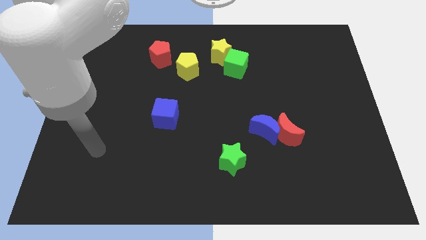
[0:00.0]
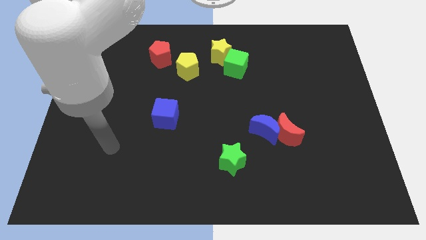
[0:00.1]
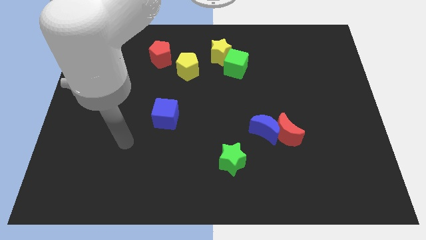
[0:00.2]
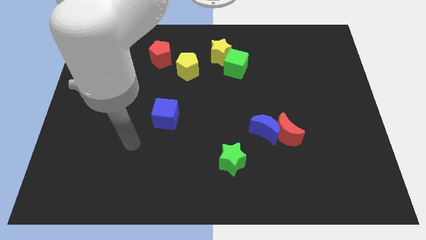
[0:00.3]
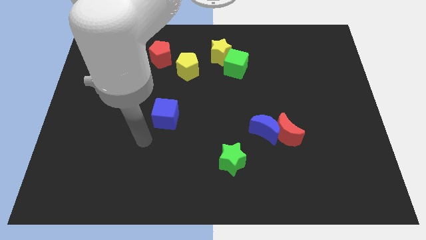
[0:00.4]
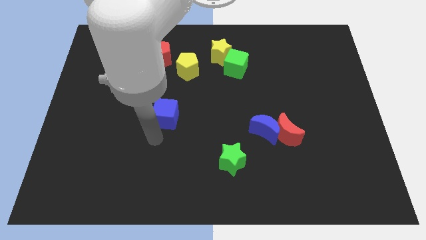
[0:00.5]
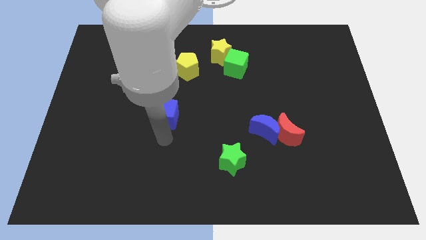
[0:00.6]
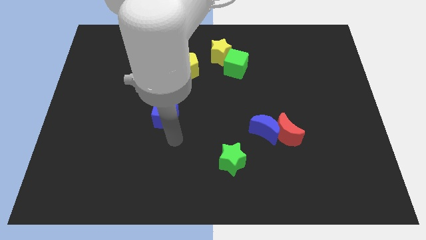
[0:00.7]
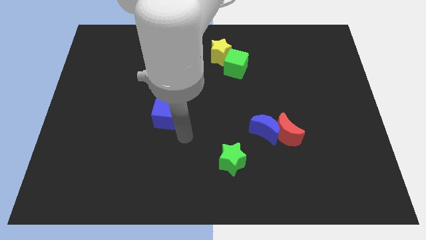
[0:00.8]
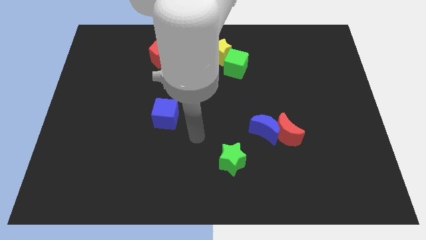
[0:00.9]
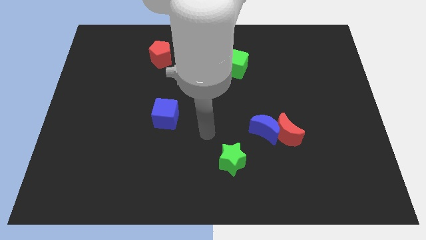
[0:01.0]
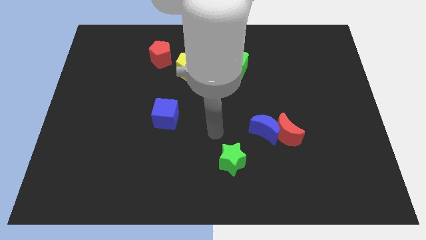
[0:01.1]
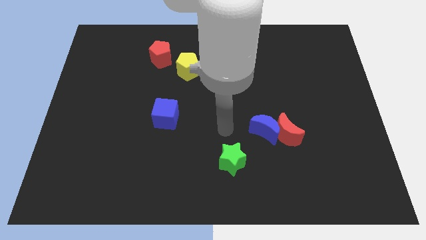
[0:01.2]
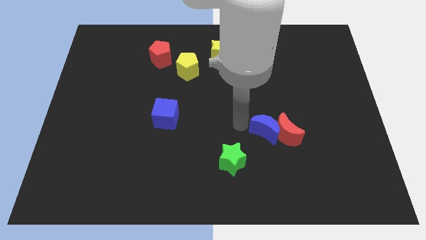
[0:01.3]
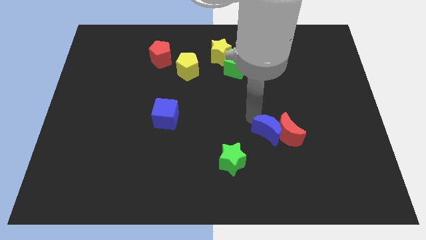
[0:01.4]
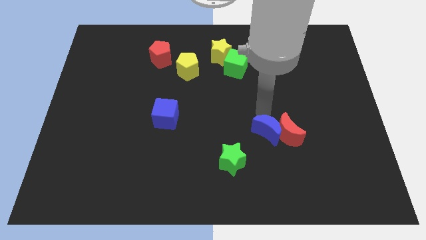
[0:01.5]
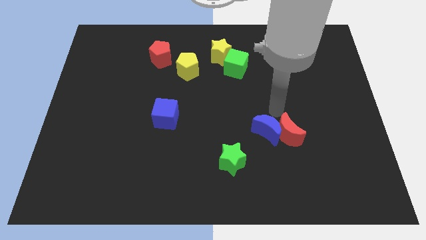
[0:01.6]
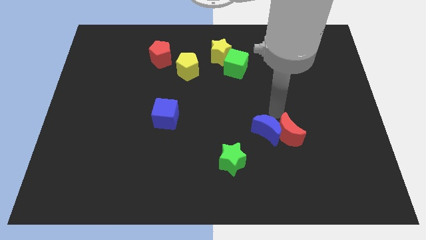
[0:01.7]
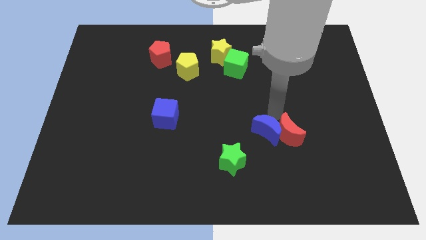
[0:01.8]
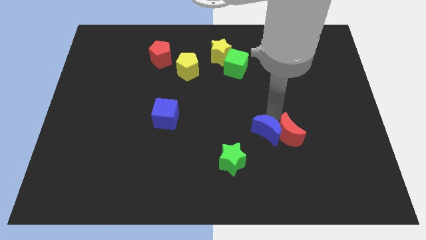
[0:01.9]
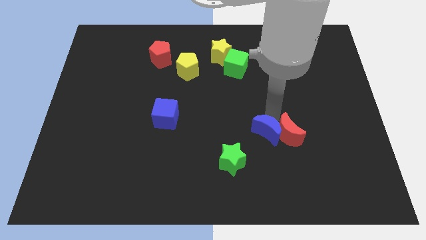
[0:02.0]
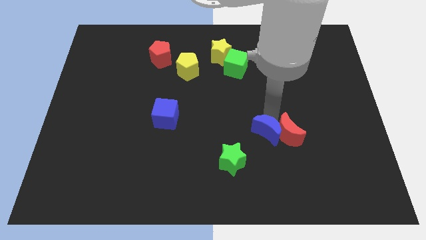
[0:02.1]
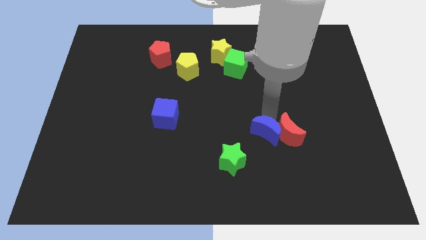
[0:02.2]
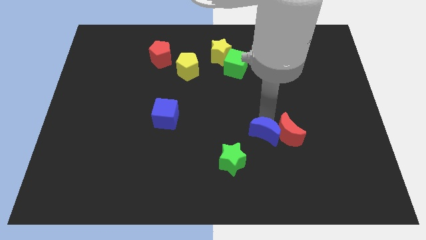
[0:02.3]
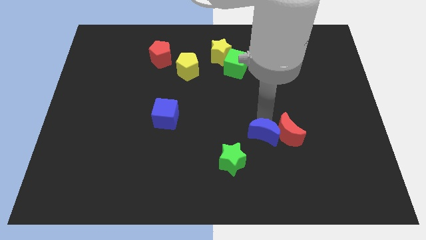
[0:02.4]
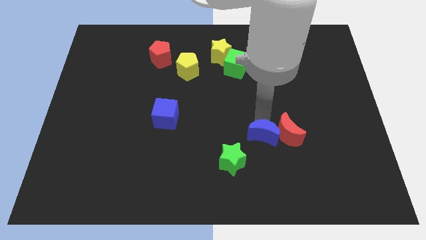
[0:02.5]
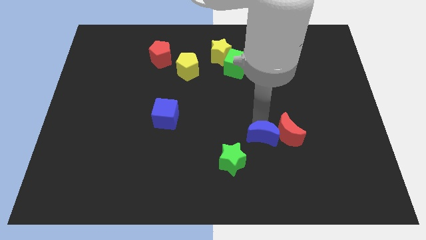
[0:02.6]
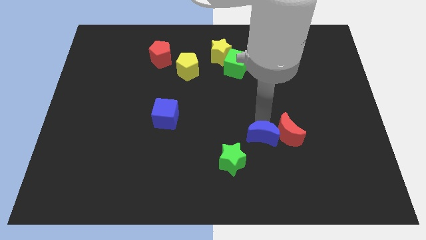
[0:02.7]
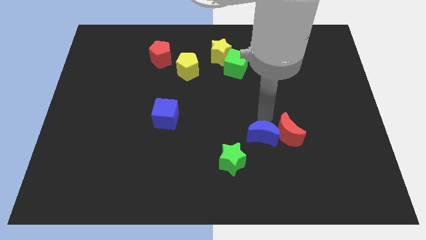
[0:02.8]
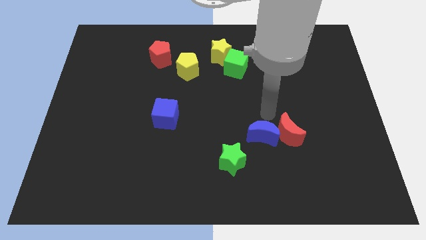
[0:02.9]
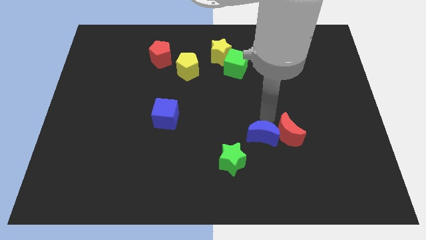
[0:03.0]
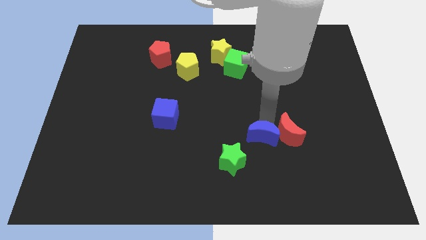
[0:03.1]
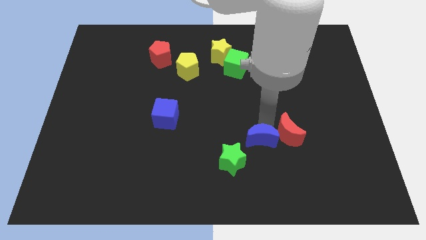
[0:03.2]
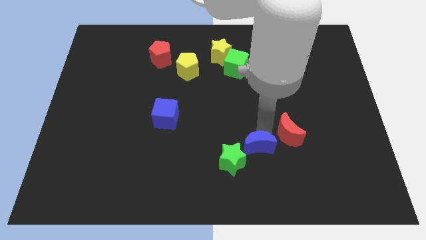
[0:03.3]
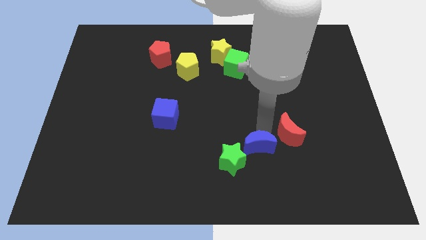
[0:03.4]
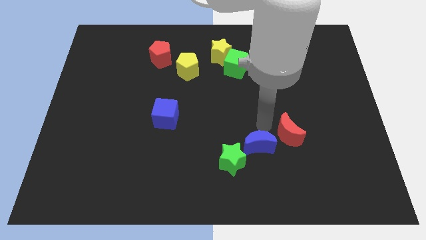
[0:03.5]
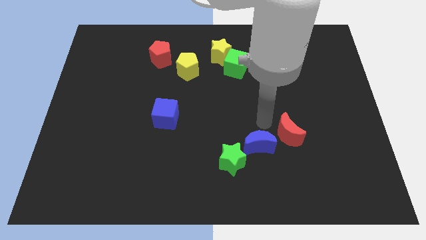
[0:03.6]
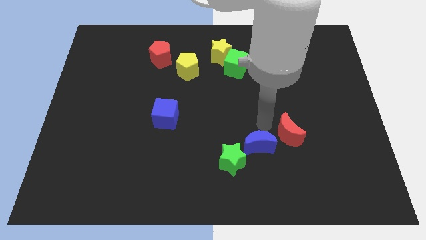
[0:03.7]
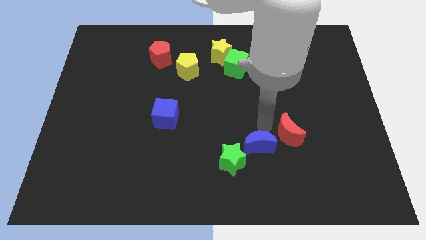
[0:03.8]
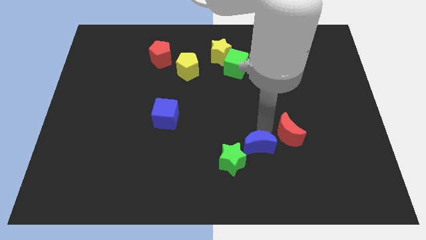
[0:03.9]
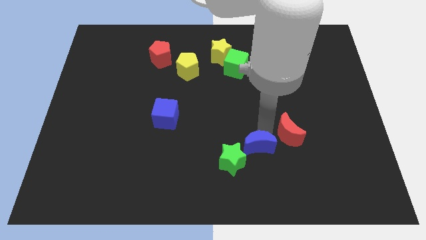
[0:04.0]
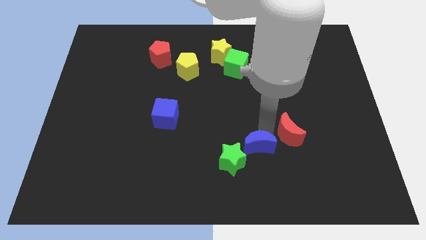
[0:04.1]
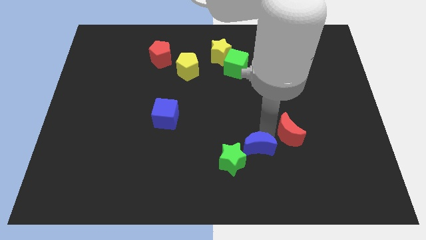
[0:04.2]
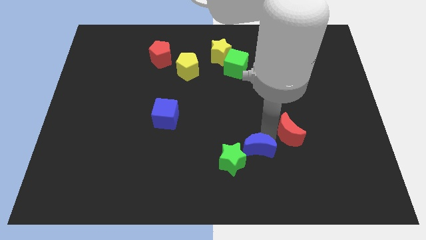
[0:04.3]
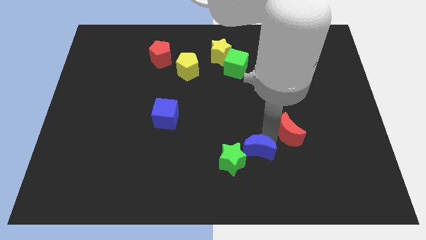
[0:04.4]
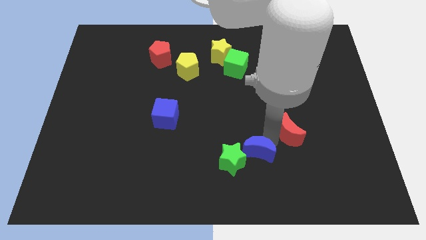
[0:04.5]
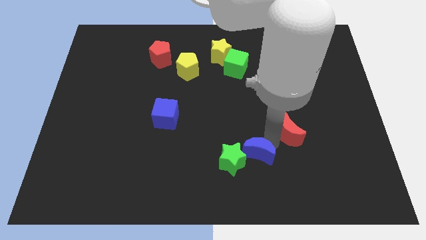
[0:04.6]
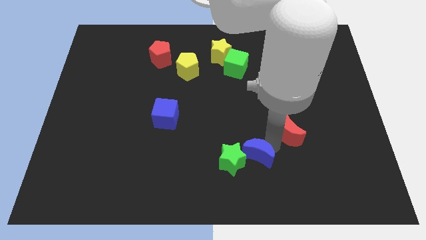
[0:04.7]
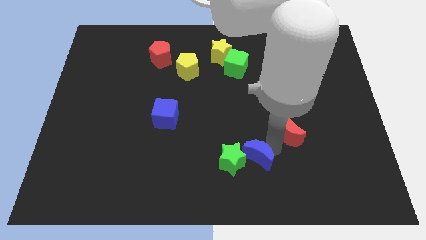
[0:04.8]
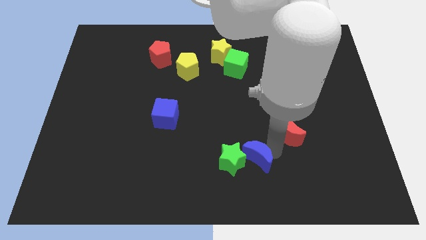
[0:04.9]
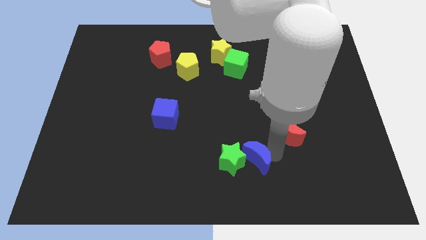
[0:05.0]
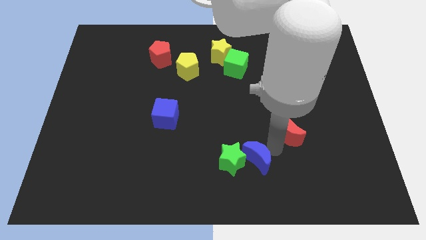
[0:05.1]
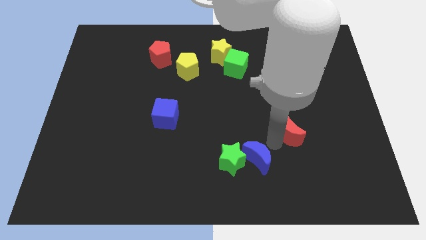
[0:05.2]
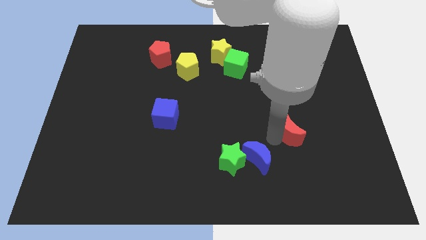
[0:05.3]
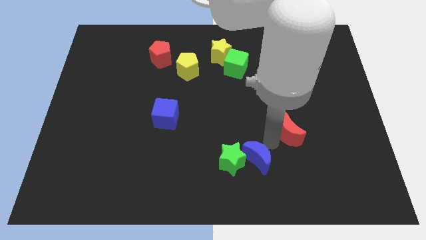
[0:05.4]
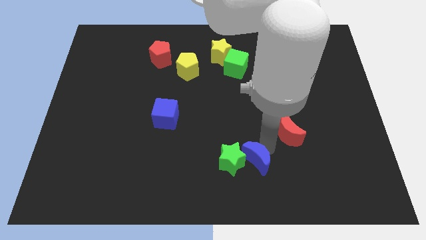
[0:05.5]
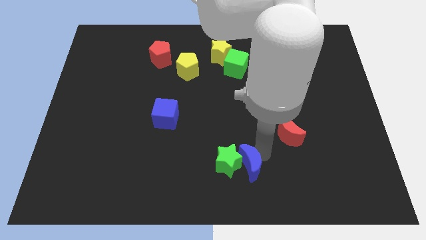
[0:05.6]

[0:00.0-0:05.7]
slide the blue moon to the bottom

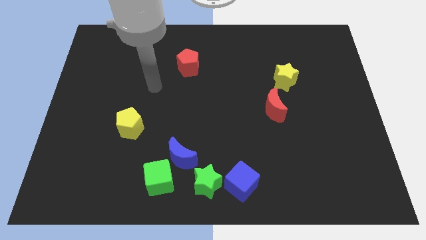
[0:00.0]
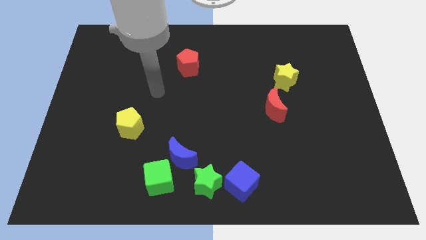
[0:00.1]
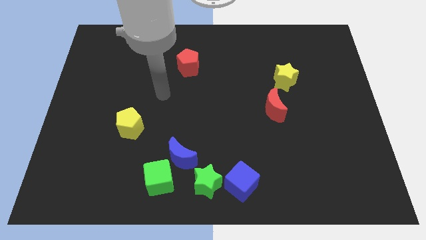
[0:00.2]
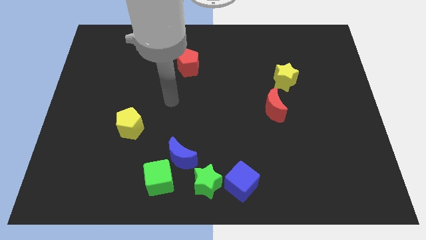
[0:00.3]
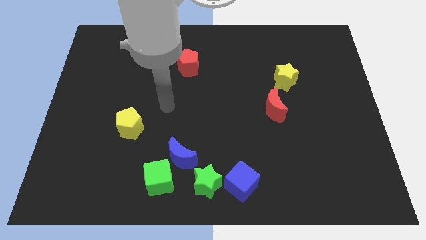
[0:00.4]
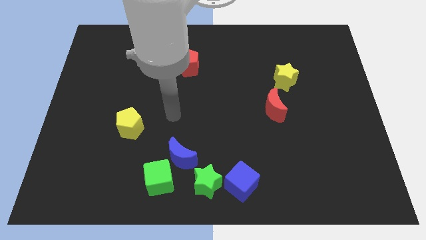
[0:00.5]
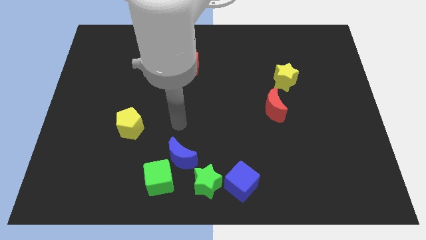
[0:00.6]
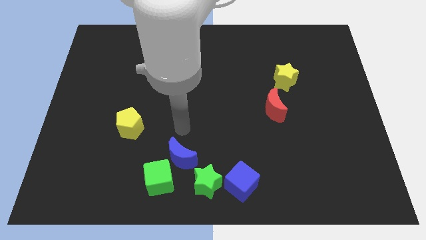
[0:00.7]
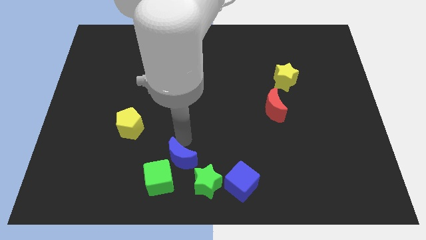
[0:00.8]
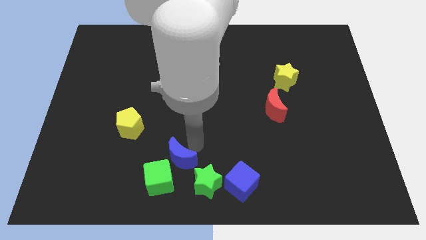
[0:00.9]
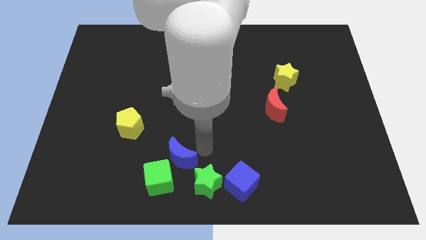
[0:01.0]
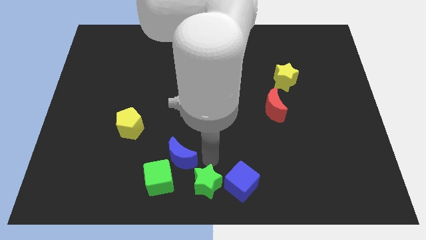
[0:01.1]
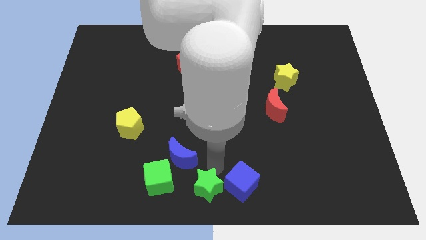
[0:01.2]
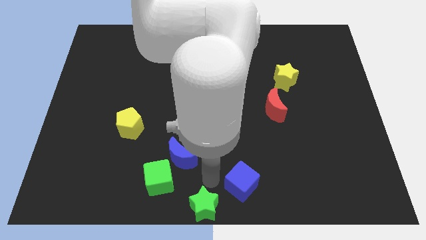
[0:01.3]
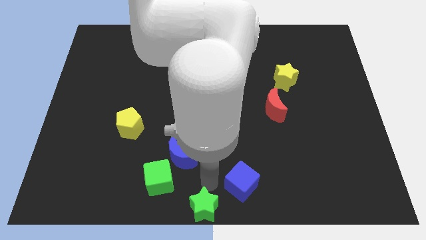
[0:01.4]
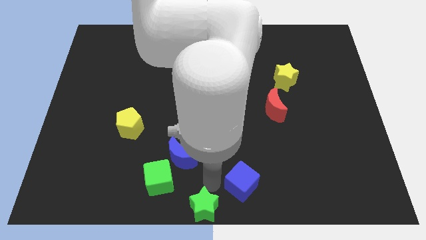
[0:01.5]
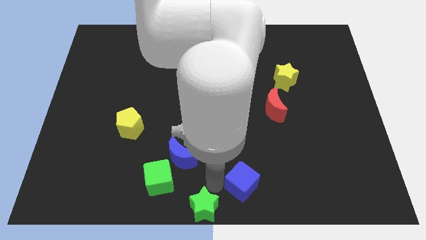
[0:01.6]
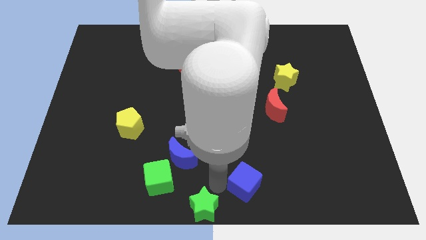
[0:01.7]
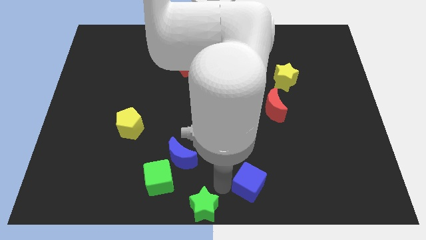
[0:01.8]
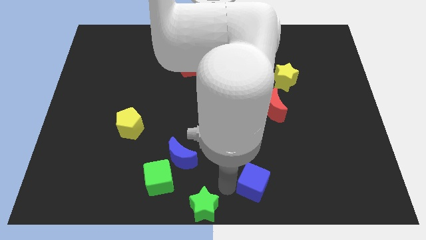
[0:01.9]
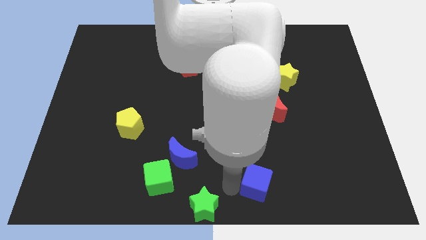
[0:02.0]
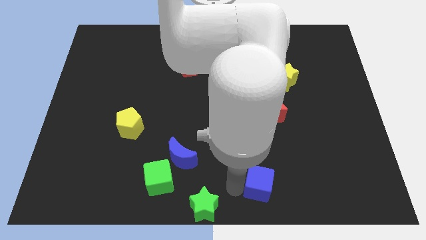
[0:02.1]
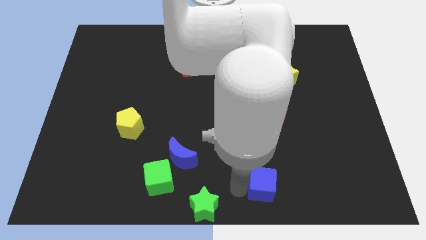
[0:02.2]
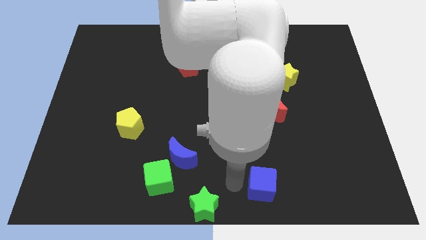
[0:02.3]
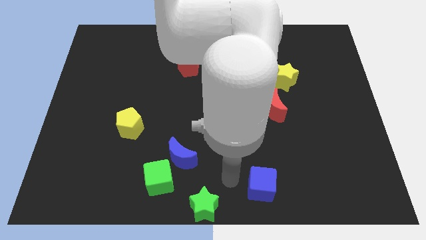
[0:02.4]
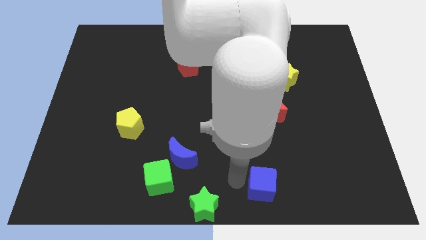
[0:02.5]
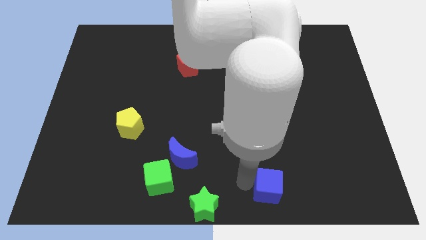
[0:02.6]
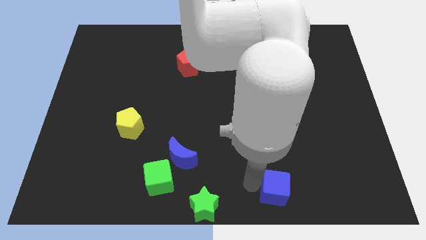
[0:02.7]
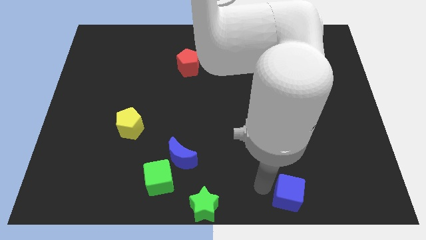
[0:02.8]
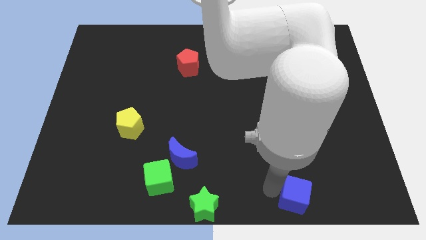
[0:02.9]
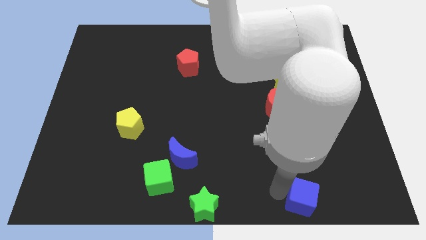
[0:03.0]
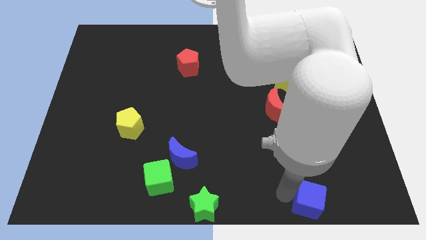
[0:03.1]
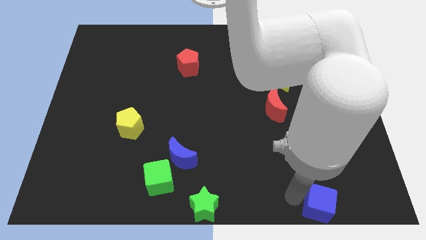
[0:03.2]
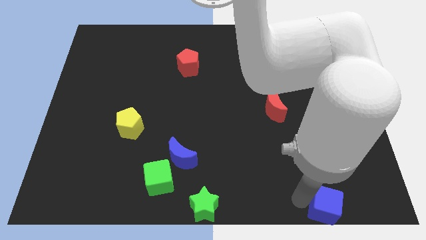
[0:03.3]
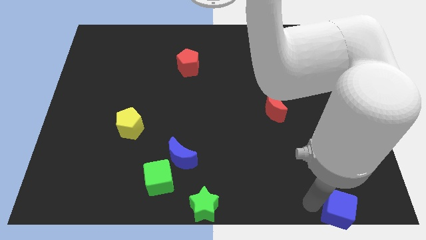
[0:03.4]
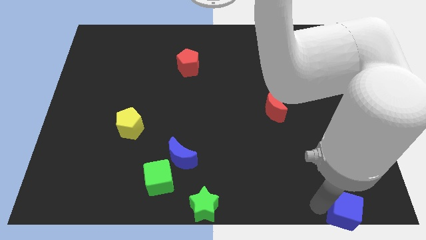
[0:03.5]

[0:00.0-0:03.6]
push the blue cube to the bottom right of the board
